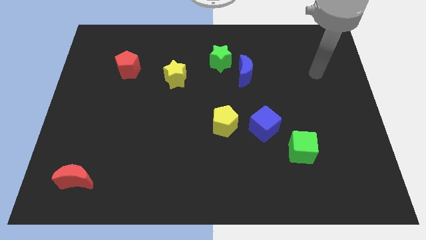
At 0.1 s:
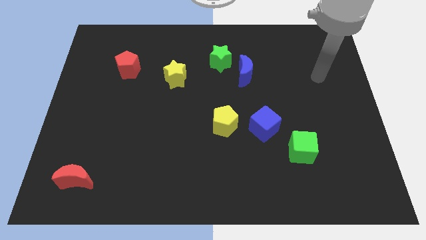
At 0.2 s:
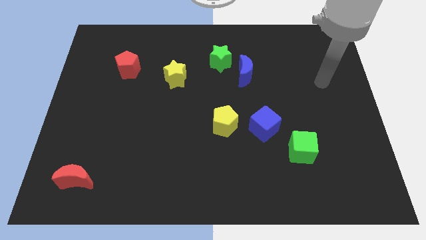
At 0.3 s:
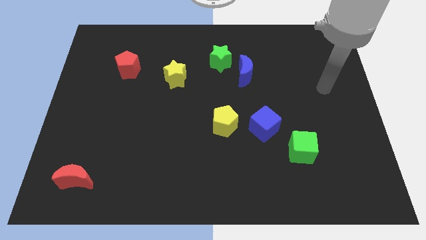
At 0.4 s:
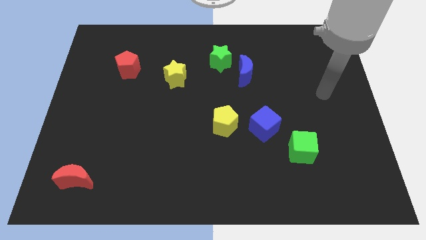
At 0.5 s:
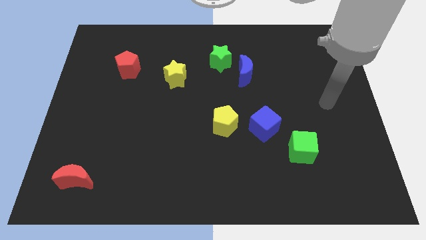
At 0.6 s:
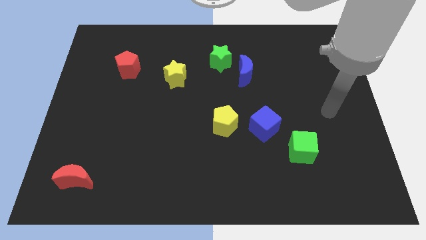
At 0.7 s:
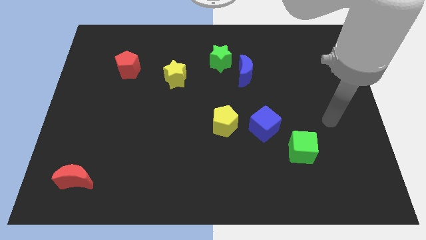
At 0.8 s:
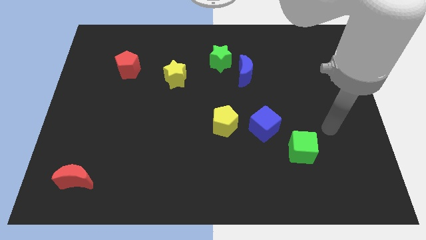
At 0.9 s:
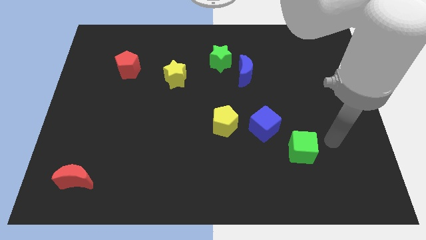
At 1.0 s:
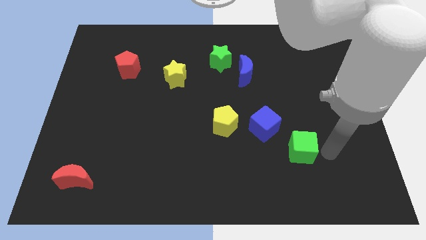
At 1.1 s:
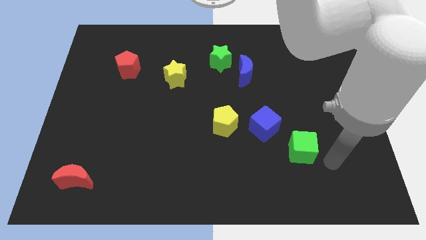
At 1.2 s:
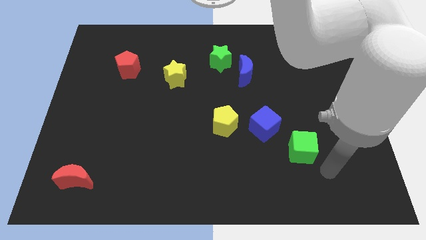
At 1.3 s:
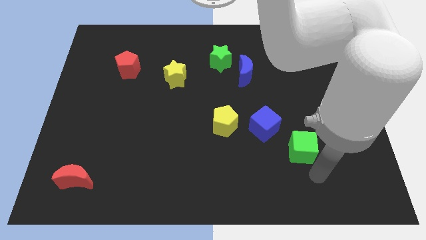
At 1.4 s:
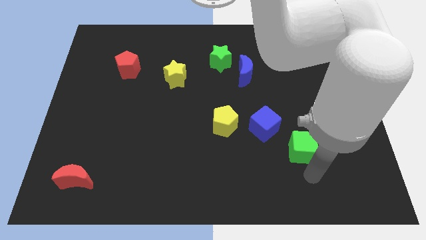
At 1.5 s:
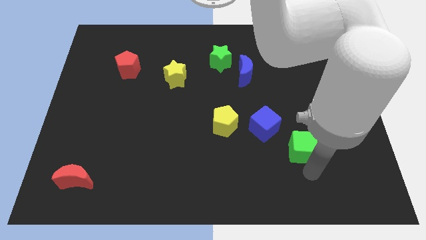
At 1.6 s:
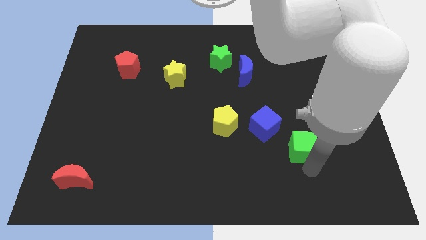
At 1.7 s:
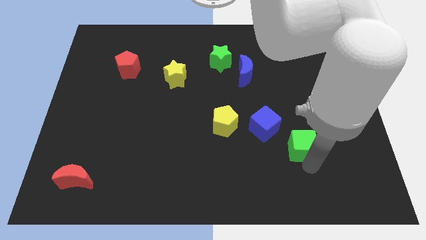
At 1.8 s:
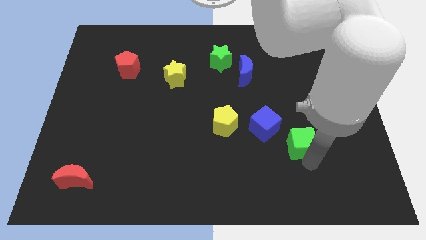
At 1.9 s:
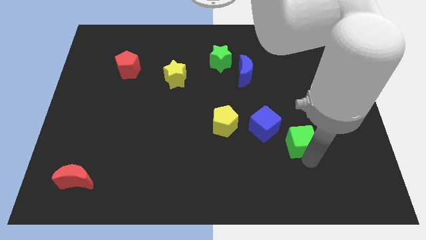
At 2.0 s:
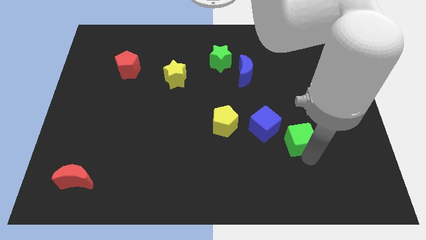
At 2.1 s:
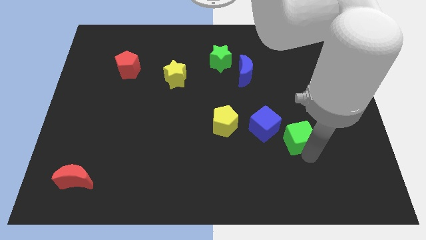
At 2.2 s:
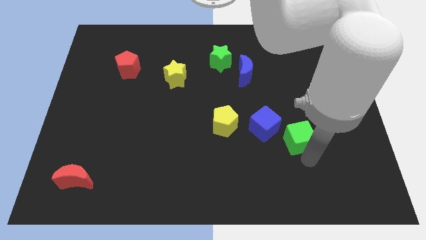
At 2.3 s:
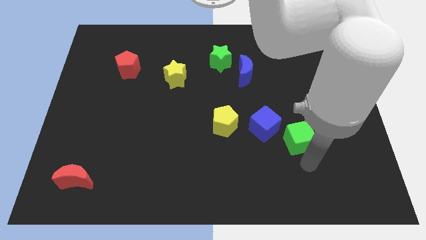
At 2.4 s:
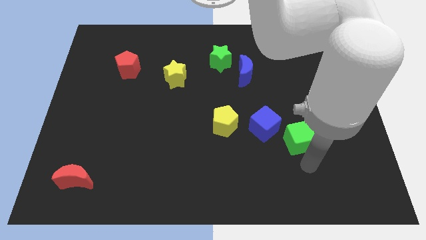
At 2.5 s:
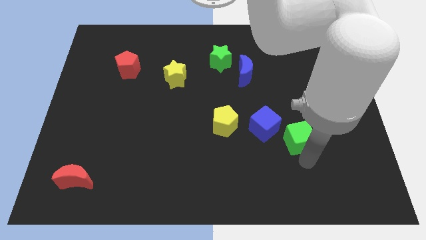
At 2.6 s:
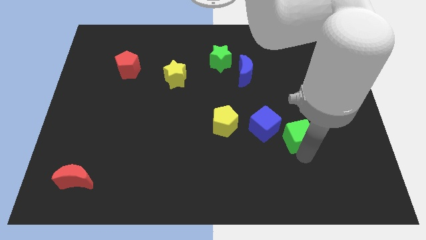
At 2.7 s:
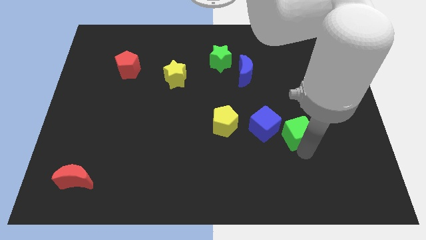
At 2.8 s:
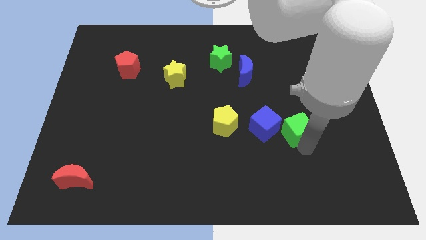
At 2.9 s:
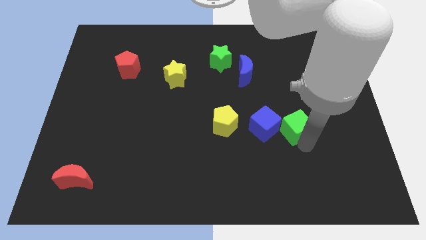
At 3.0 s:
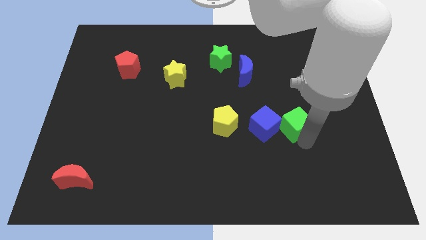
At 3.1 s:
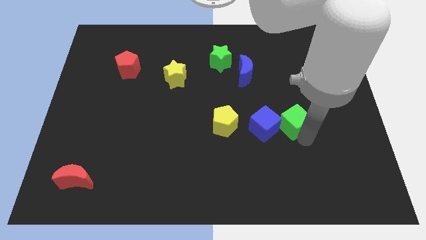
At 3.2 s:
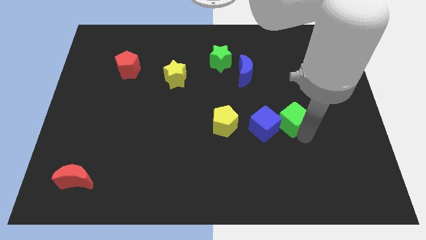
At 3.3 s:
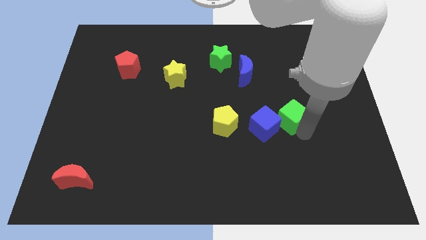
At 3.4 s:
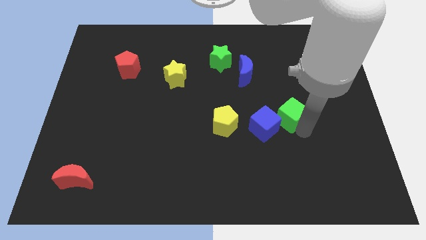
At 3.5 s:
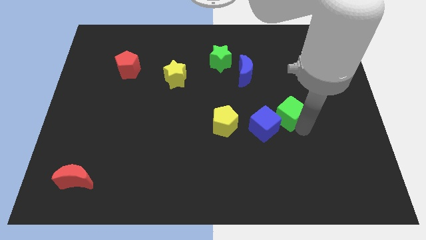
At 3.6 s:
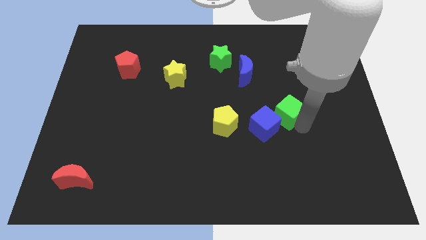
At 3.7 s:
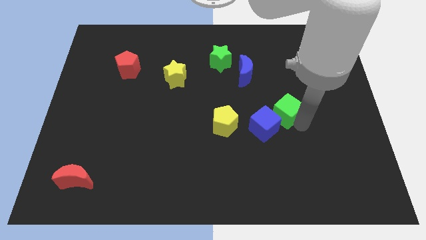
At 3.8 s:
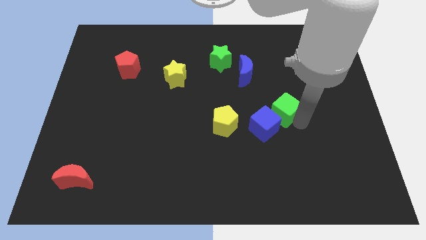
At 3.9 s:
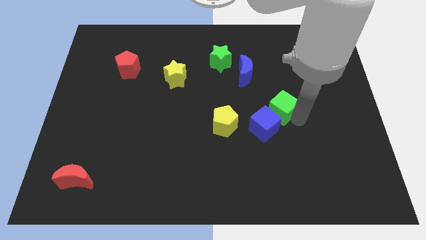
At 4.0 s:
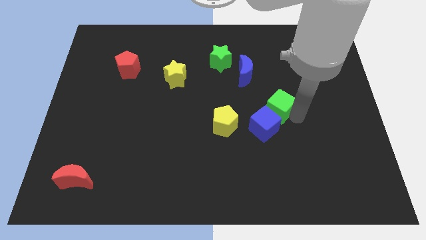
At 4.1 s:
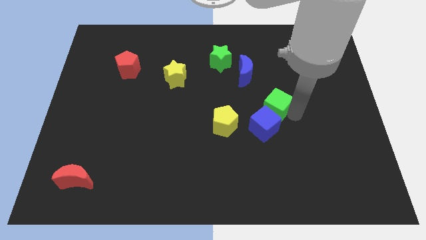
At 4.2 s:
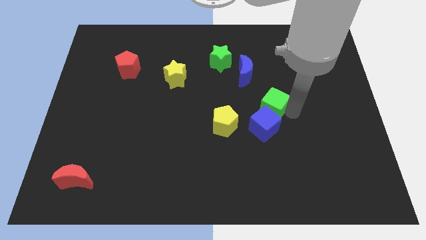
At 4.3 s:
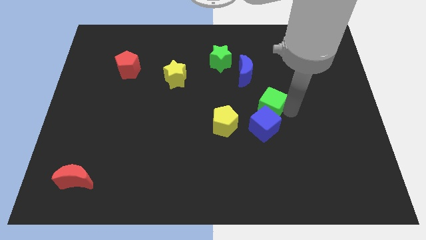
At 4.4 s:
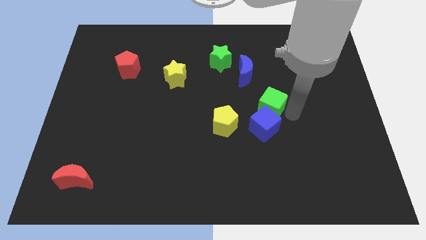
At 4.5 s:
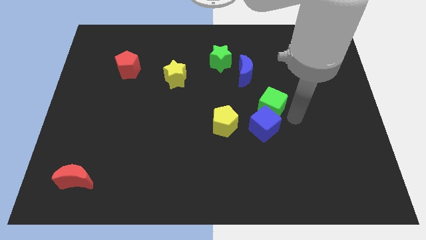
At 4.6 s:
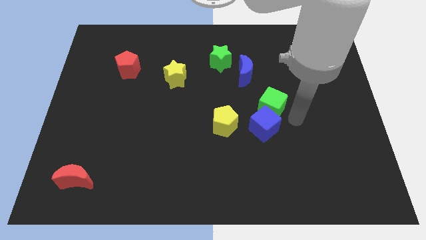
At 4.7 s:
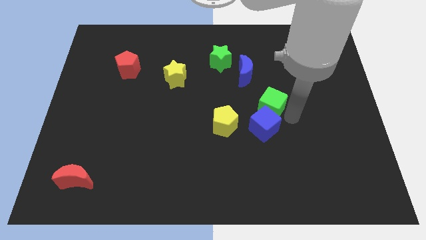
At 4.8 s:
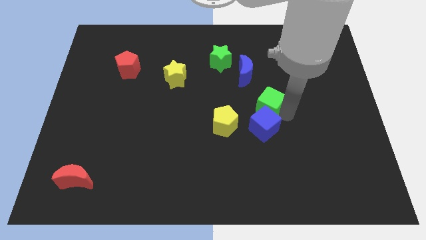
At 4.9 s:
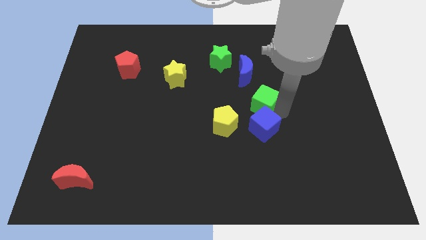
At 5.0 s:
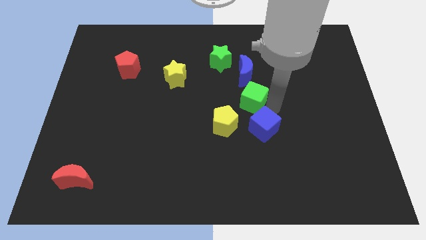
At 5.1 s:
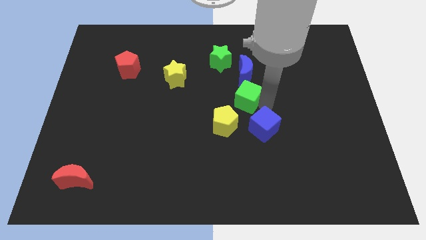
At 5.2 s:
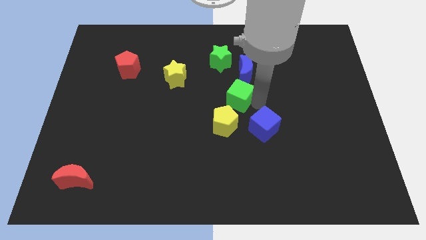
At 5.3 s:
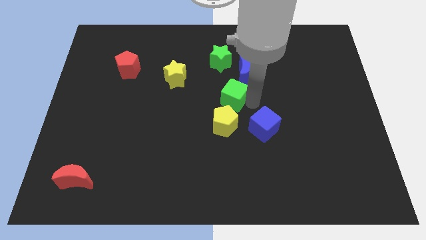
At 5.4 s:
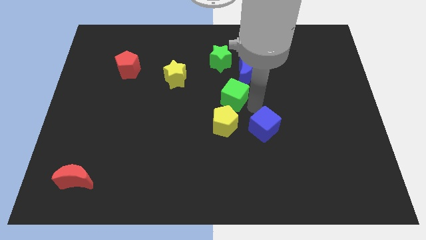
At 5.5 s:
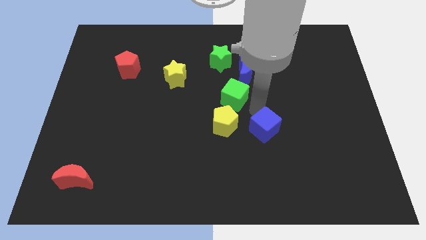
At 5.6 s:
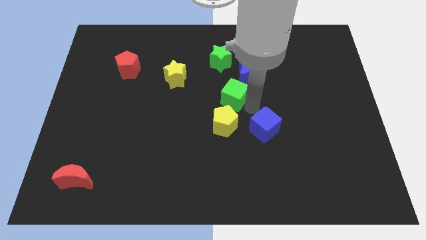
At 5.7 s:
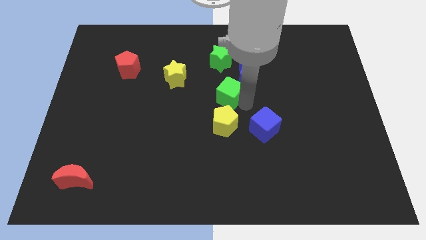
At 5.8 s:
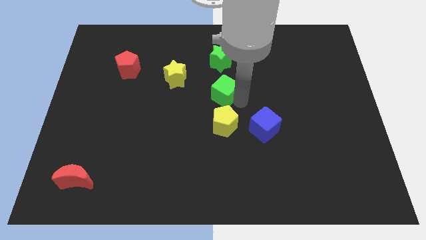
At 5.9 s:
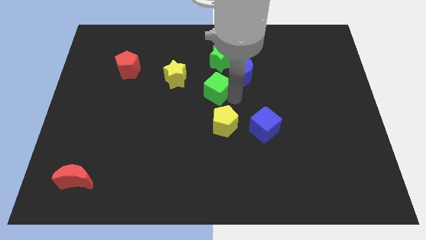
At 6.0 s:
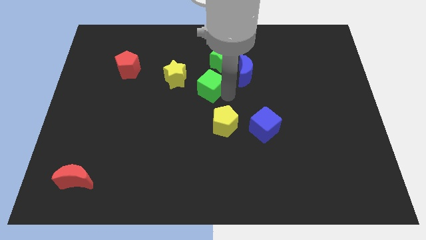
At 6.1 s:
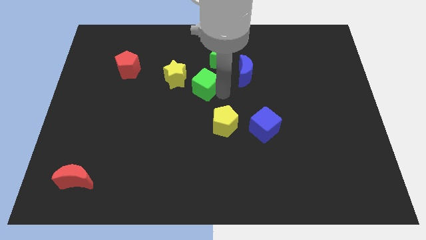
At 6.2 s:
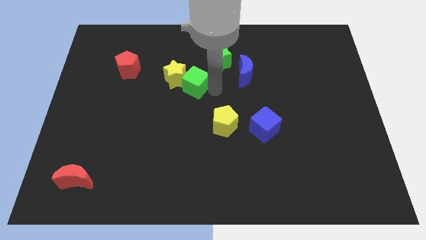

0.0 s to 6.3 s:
move the green cube to the yellow star

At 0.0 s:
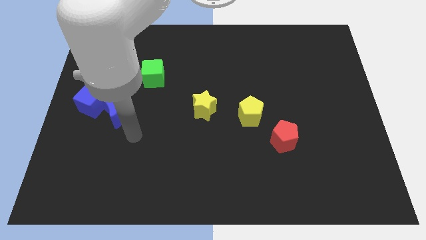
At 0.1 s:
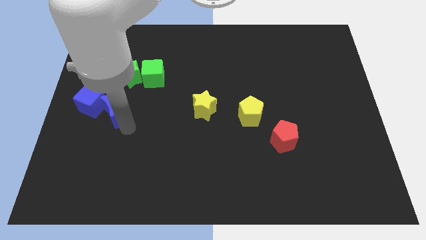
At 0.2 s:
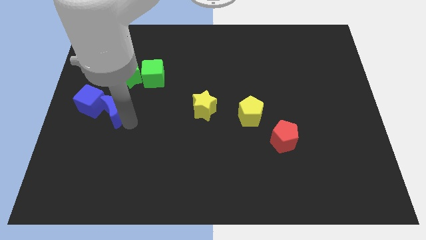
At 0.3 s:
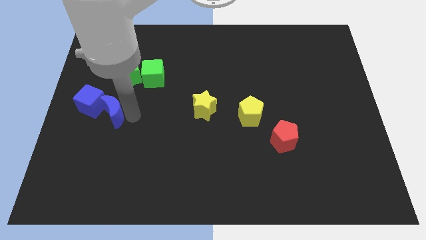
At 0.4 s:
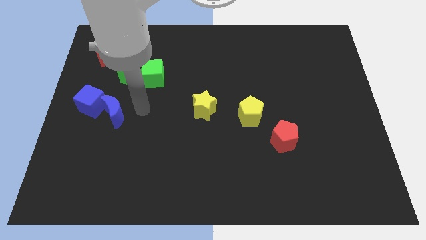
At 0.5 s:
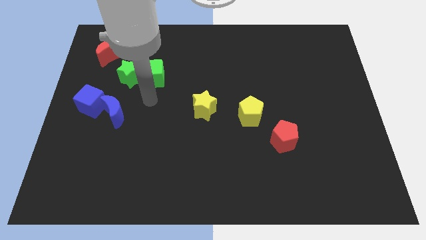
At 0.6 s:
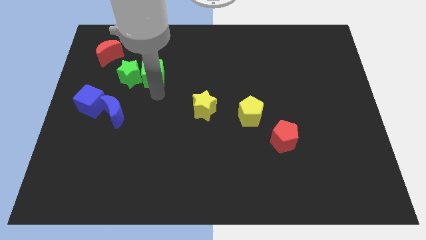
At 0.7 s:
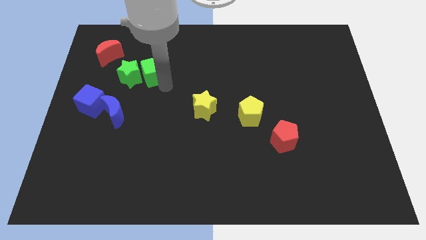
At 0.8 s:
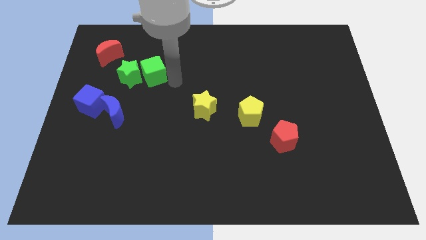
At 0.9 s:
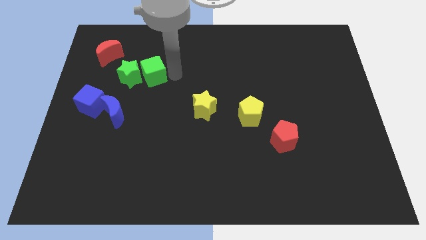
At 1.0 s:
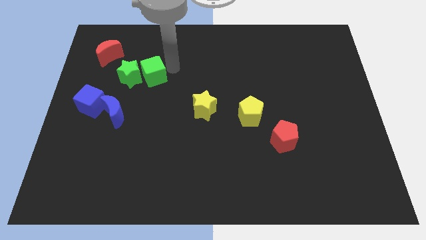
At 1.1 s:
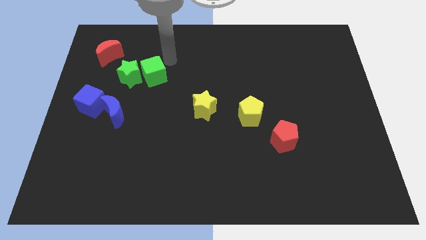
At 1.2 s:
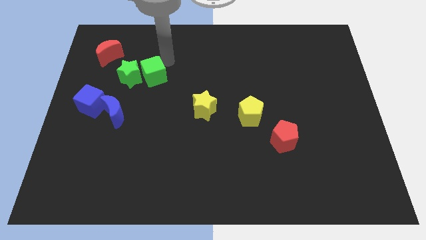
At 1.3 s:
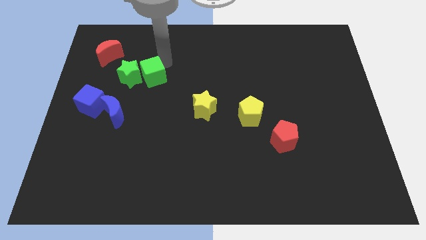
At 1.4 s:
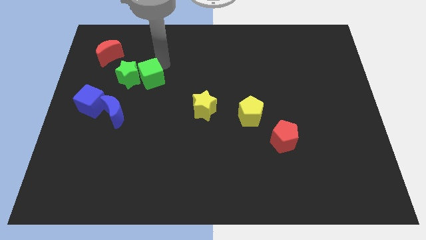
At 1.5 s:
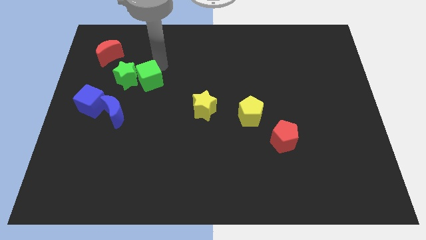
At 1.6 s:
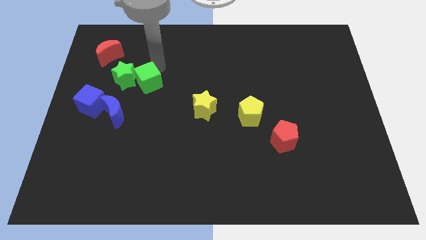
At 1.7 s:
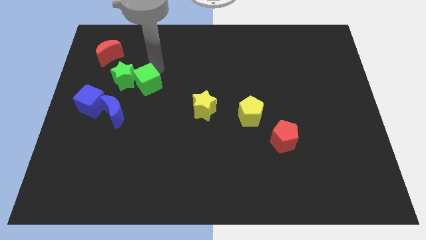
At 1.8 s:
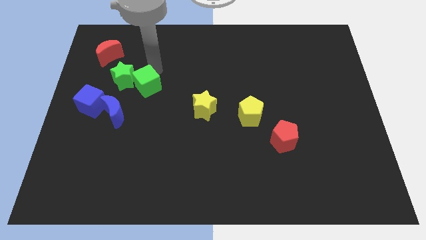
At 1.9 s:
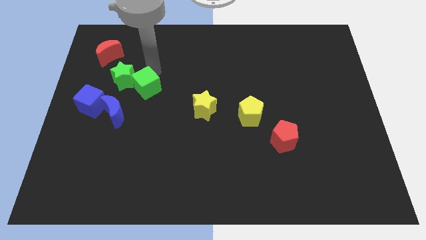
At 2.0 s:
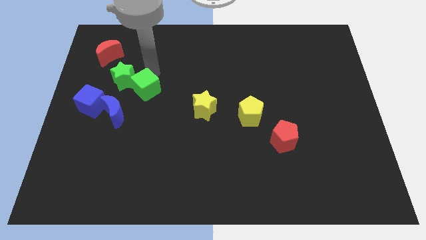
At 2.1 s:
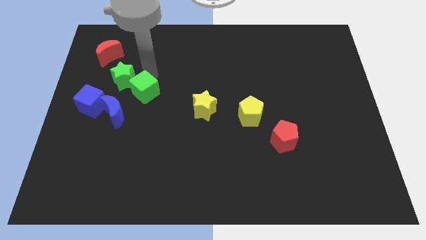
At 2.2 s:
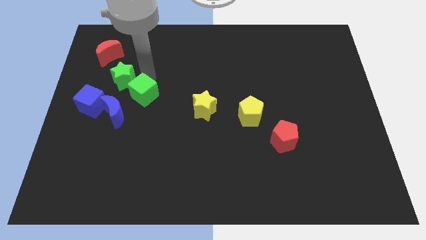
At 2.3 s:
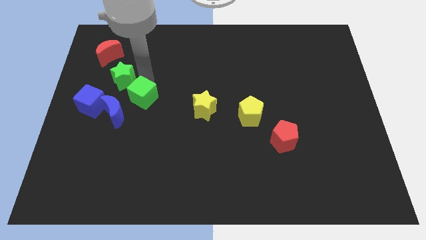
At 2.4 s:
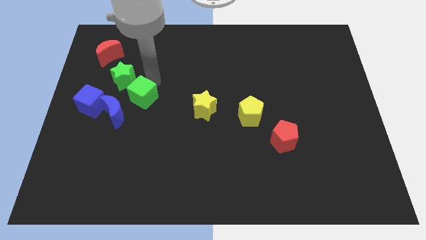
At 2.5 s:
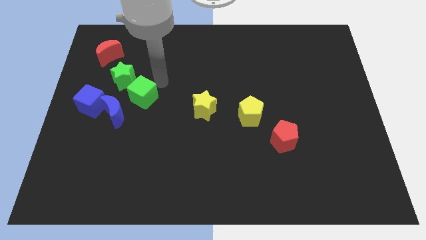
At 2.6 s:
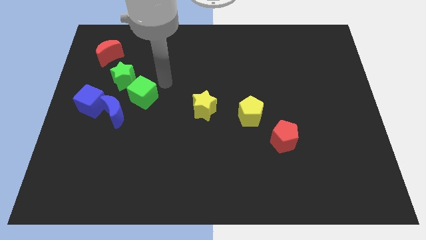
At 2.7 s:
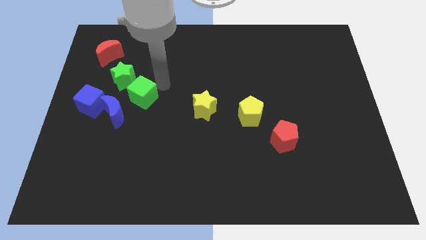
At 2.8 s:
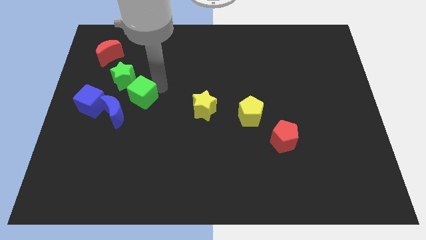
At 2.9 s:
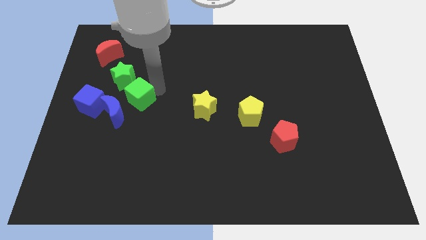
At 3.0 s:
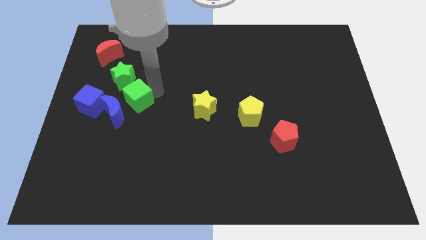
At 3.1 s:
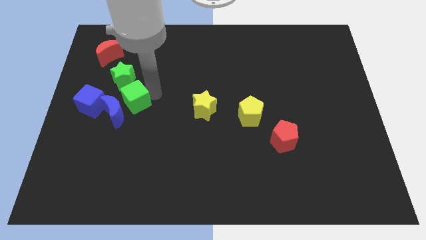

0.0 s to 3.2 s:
put the green cube to the blue moon
